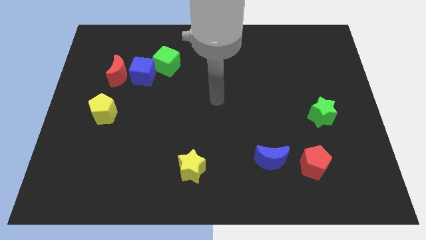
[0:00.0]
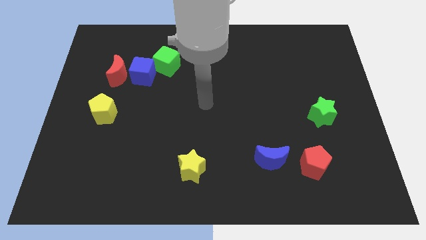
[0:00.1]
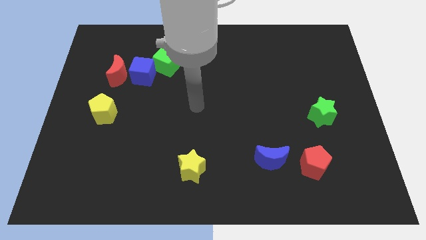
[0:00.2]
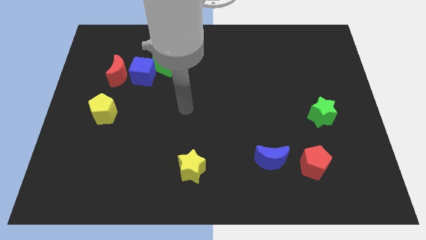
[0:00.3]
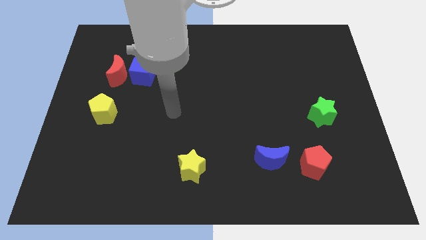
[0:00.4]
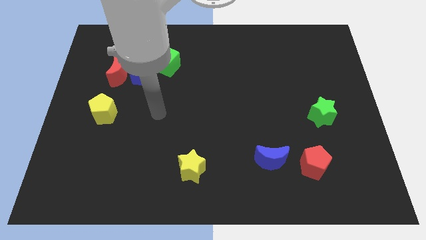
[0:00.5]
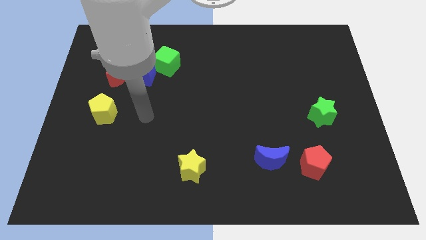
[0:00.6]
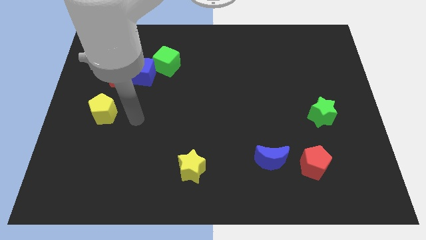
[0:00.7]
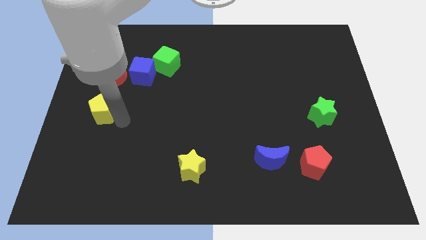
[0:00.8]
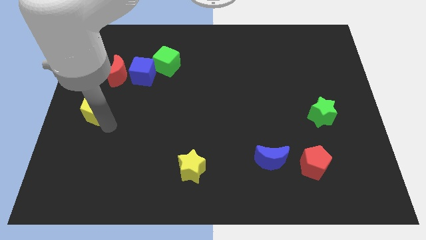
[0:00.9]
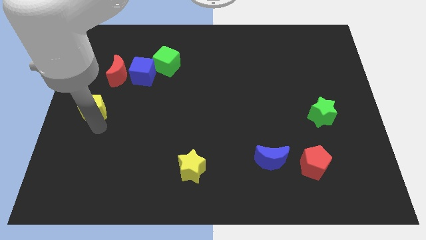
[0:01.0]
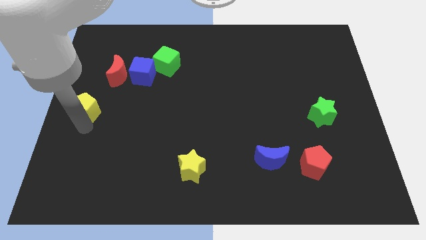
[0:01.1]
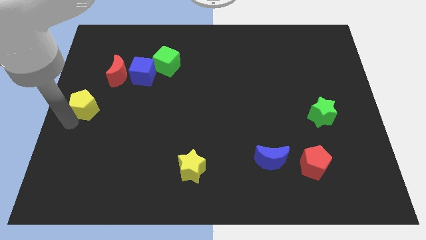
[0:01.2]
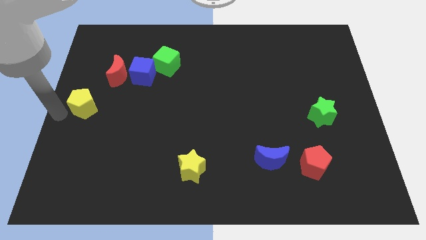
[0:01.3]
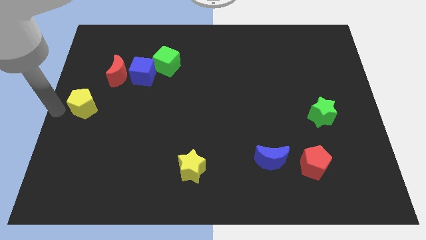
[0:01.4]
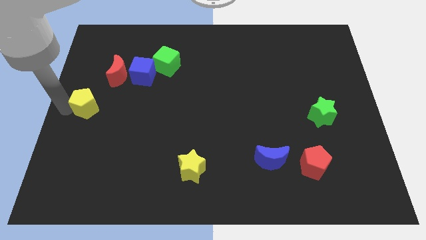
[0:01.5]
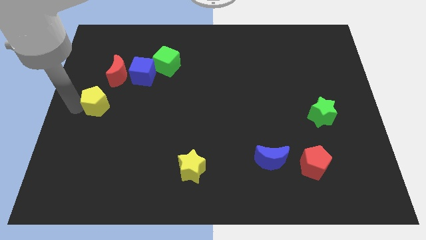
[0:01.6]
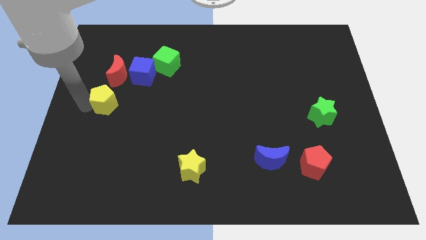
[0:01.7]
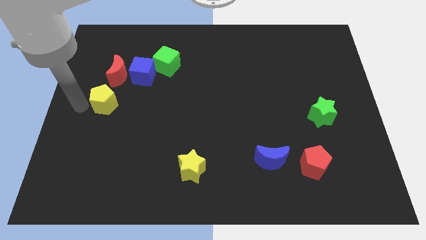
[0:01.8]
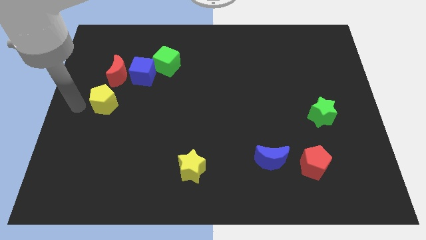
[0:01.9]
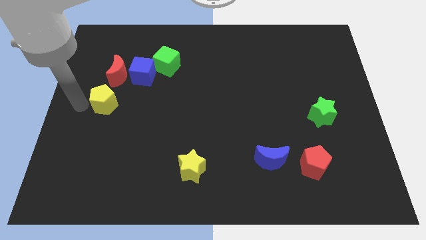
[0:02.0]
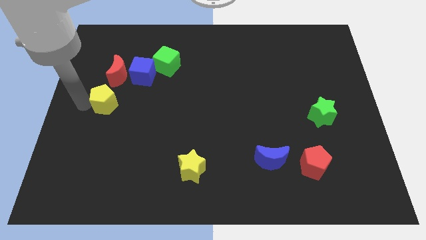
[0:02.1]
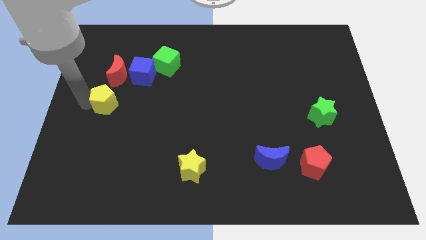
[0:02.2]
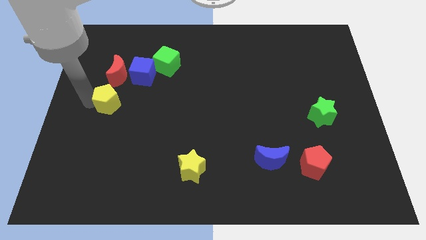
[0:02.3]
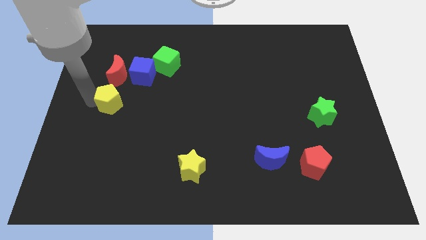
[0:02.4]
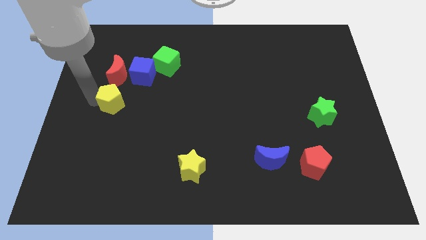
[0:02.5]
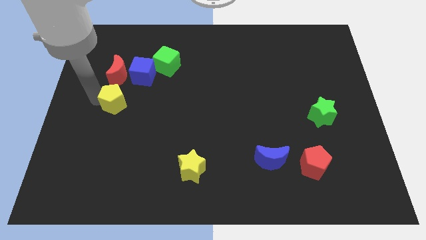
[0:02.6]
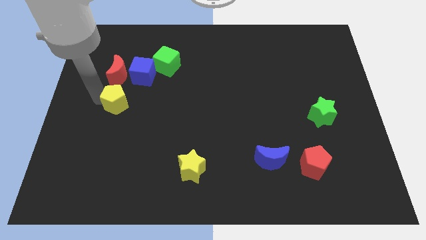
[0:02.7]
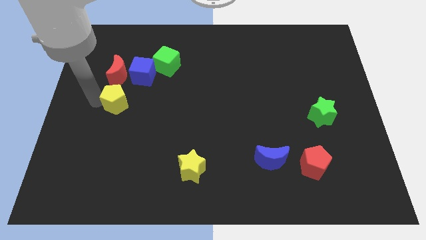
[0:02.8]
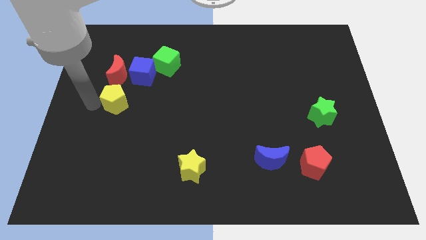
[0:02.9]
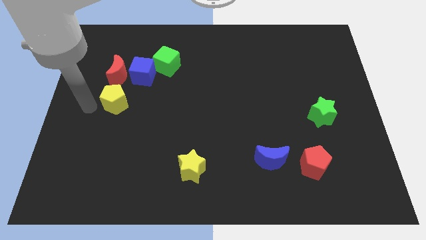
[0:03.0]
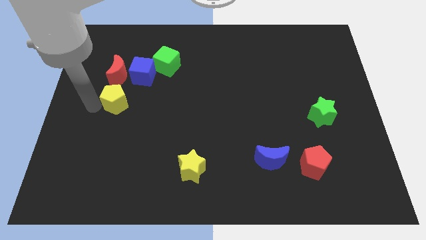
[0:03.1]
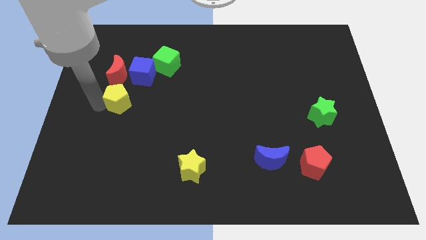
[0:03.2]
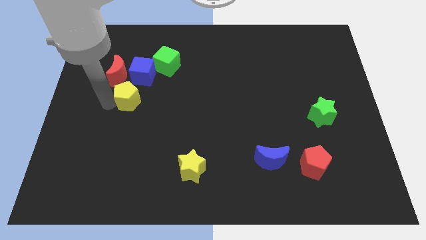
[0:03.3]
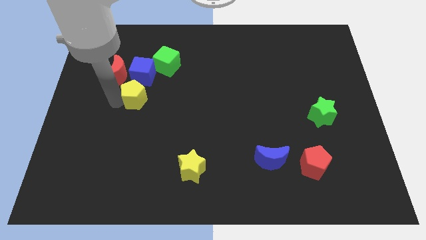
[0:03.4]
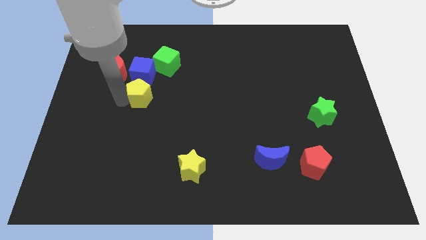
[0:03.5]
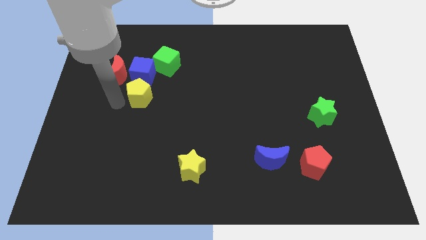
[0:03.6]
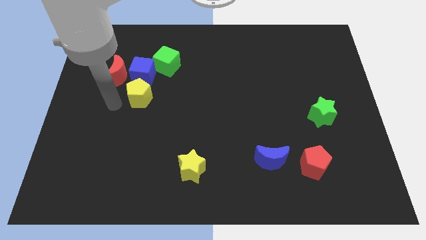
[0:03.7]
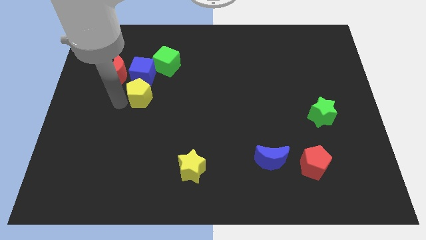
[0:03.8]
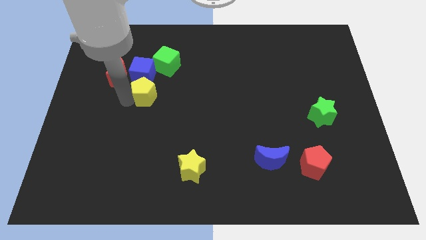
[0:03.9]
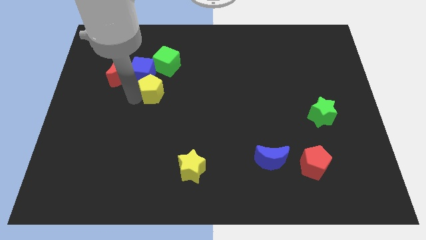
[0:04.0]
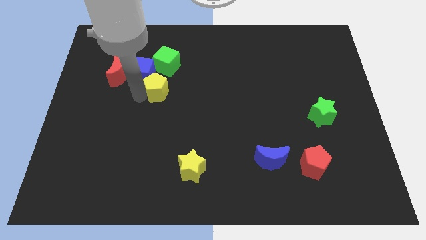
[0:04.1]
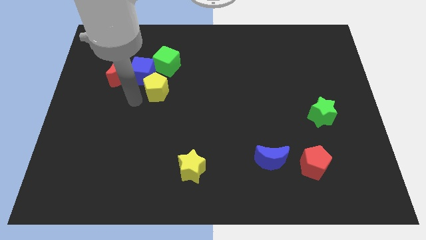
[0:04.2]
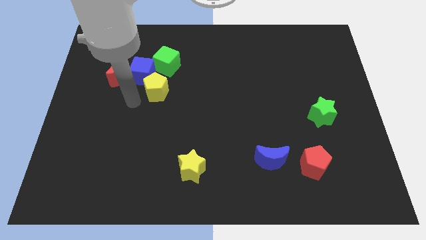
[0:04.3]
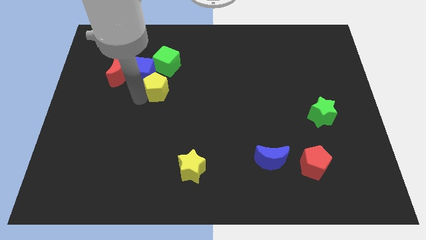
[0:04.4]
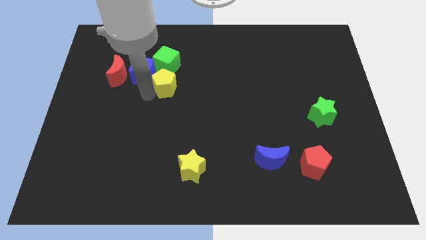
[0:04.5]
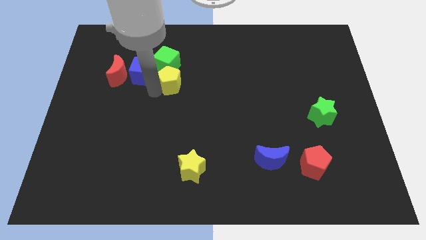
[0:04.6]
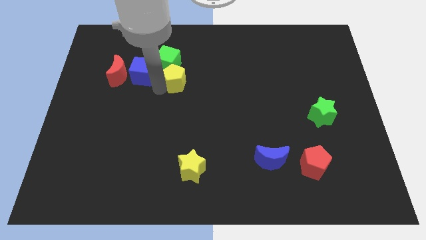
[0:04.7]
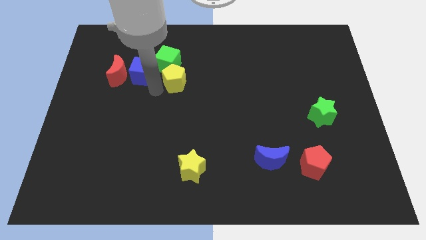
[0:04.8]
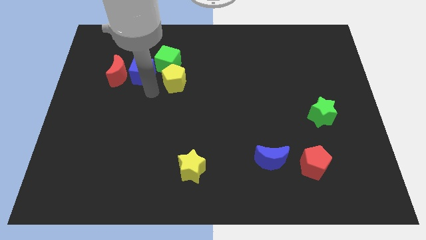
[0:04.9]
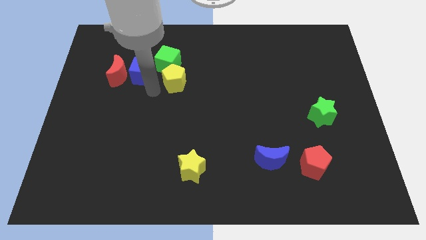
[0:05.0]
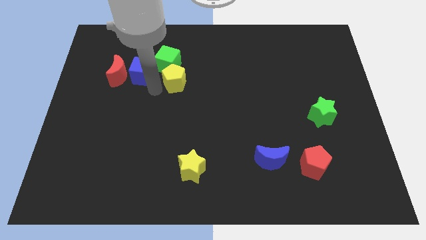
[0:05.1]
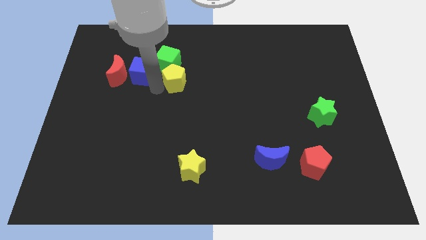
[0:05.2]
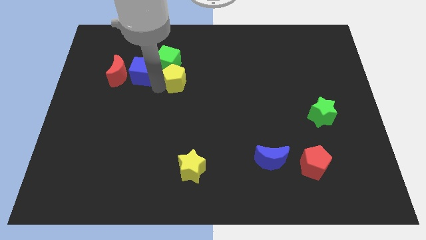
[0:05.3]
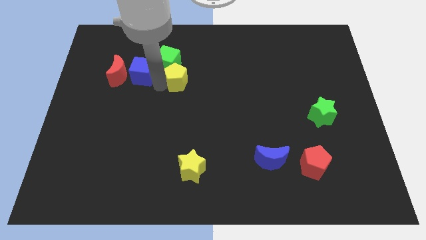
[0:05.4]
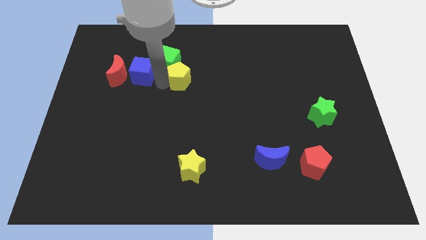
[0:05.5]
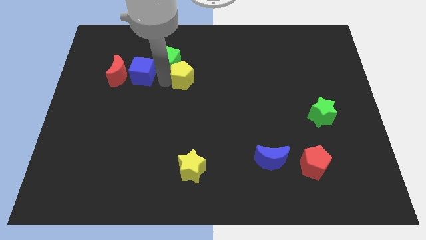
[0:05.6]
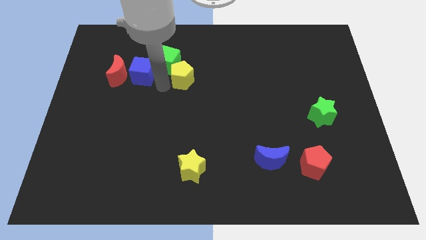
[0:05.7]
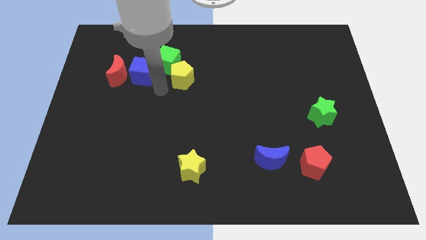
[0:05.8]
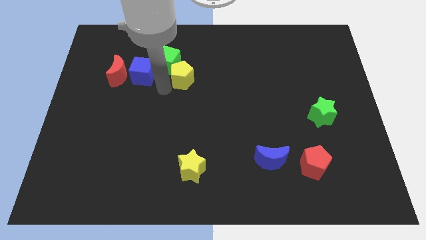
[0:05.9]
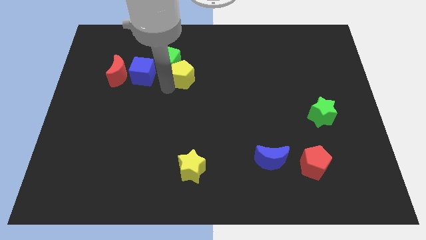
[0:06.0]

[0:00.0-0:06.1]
slide the yellow pentagon just right of the green cube

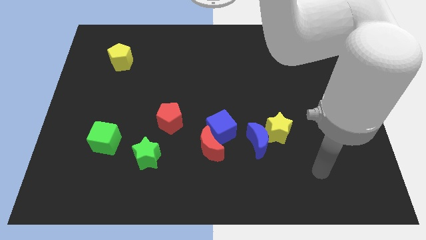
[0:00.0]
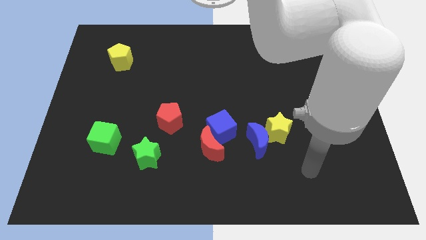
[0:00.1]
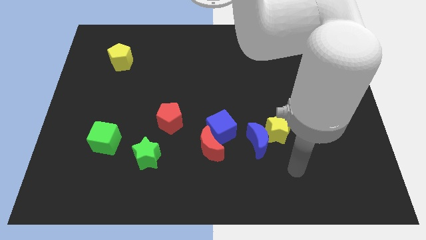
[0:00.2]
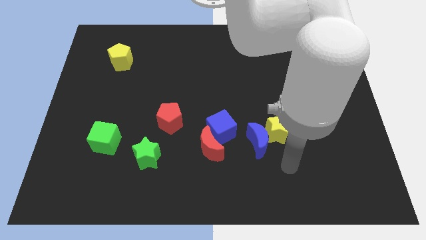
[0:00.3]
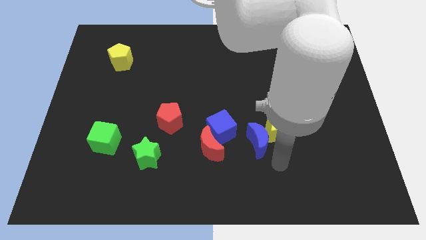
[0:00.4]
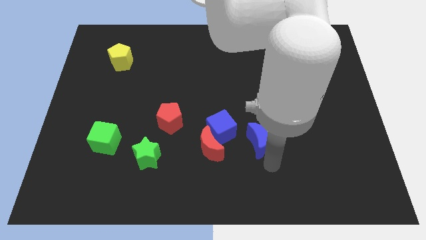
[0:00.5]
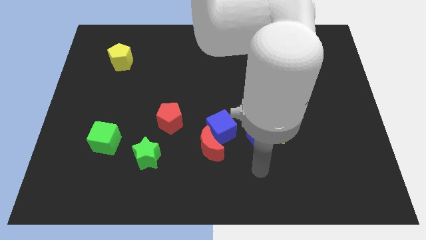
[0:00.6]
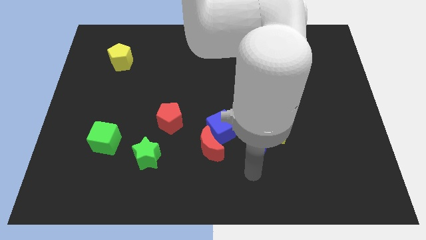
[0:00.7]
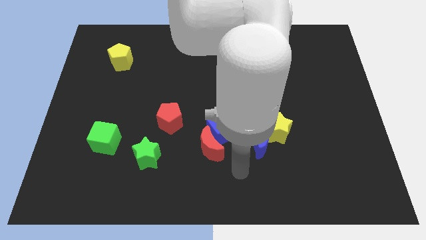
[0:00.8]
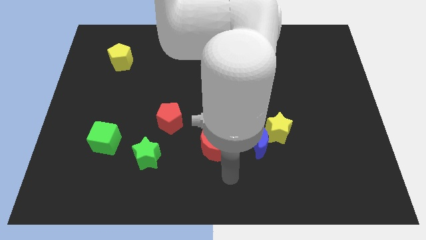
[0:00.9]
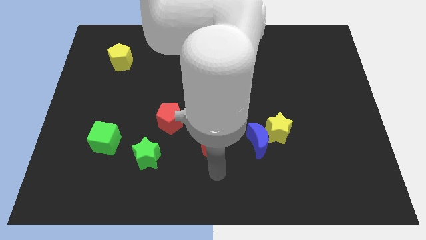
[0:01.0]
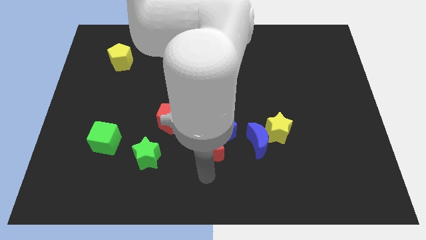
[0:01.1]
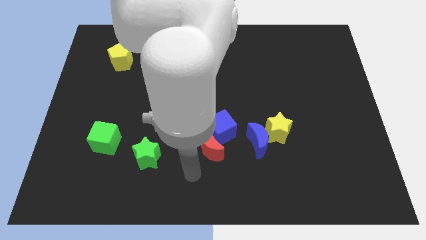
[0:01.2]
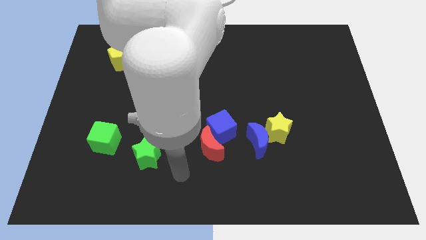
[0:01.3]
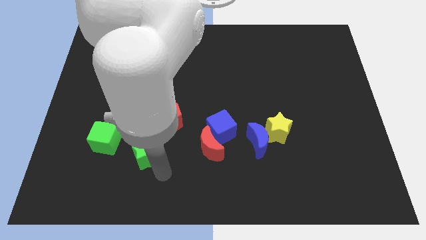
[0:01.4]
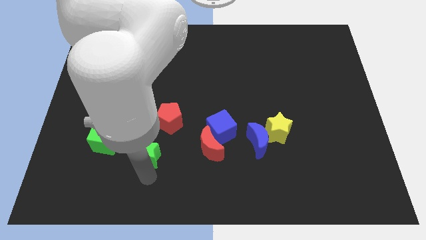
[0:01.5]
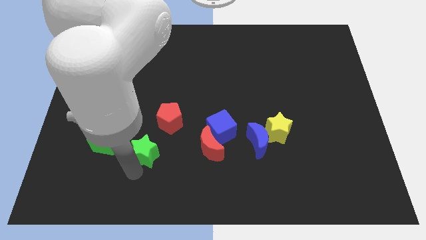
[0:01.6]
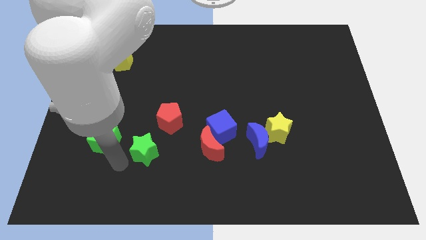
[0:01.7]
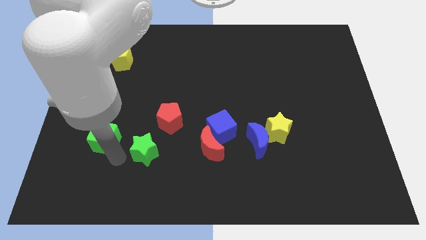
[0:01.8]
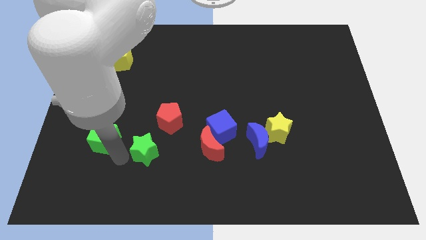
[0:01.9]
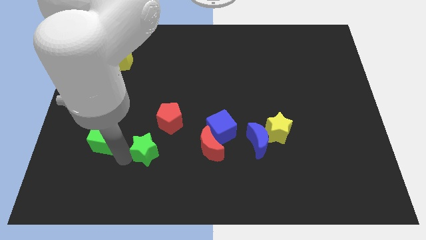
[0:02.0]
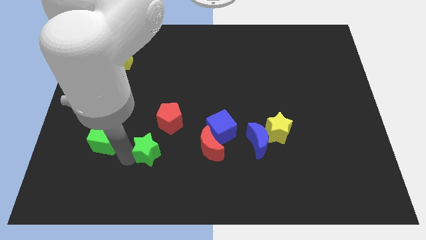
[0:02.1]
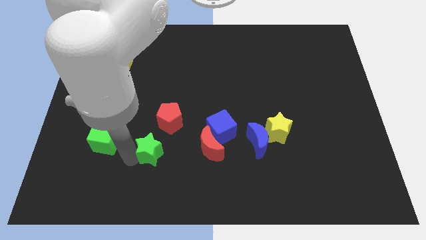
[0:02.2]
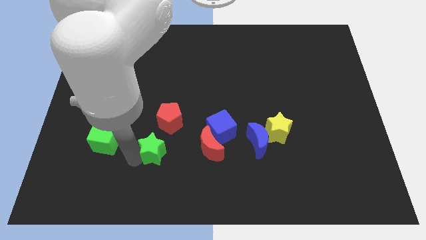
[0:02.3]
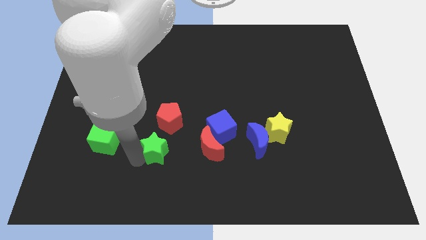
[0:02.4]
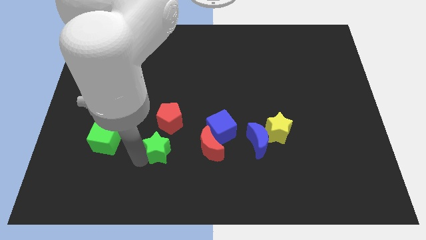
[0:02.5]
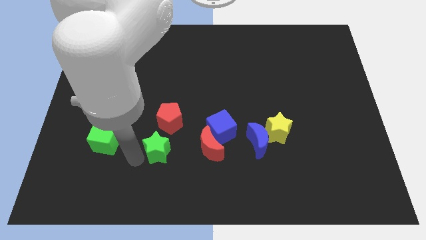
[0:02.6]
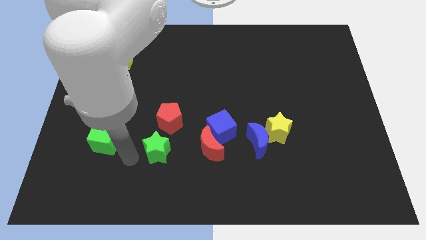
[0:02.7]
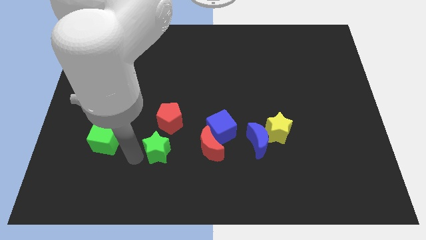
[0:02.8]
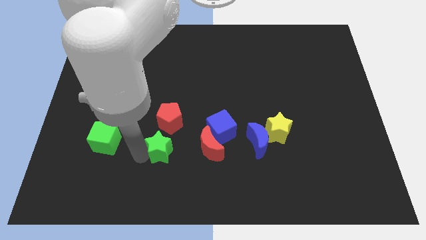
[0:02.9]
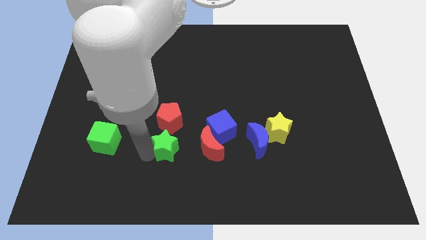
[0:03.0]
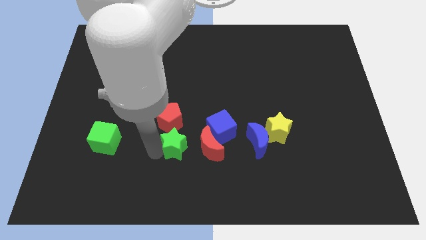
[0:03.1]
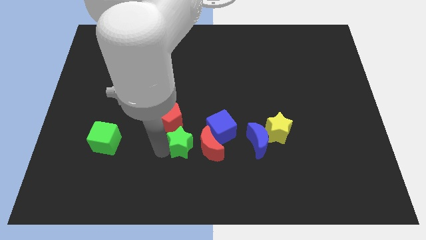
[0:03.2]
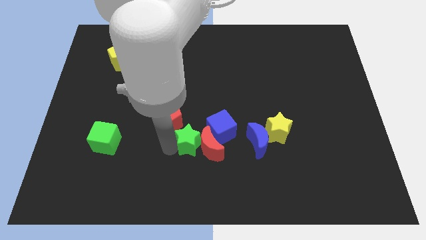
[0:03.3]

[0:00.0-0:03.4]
push the green star just left of the blue moon
